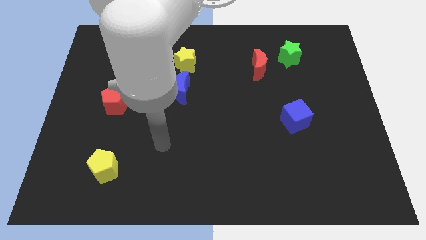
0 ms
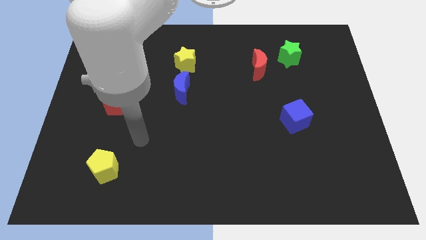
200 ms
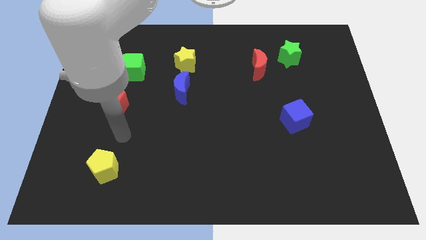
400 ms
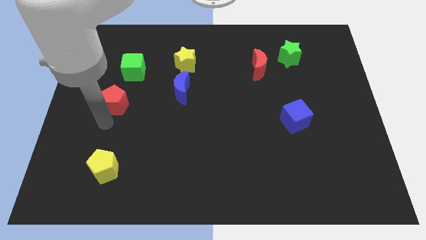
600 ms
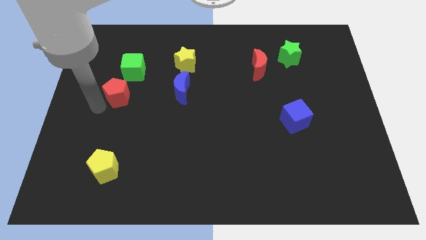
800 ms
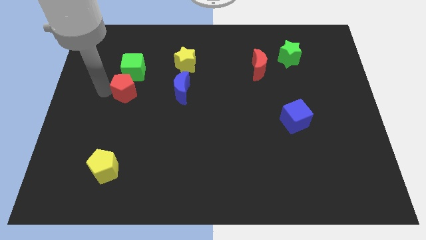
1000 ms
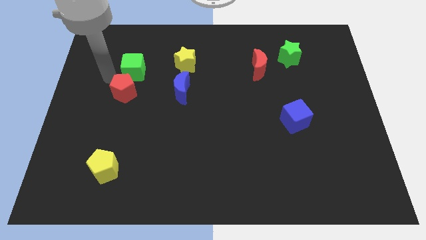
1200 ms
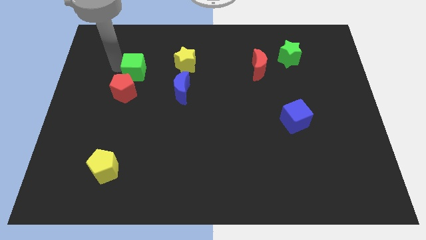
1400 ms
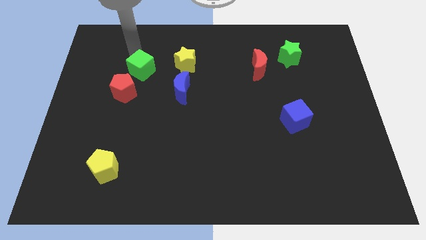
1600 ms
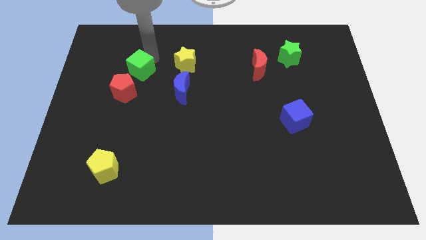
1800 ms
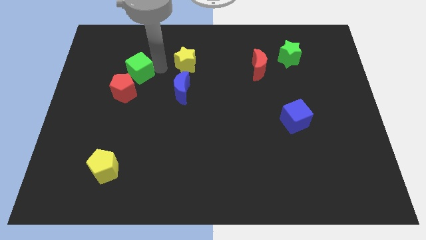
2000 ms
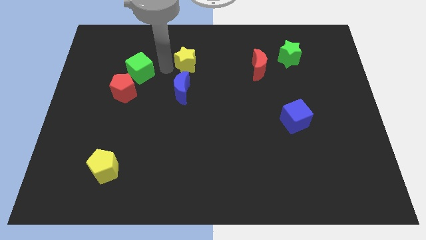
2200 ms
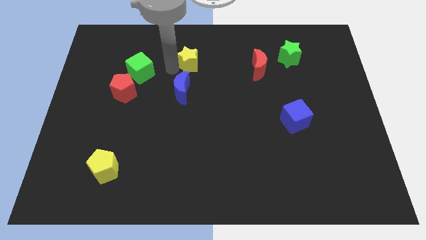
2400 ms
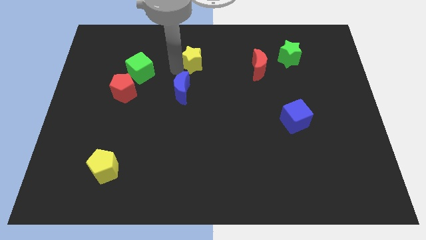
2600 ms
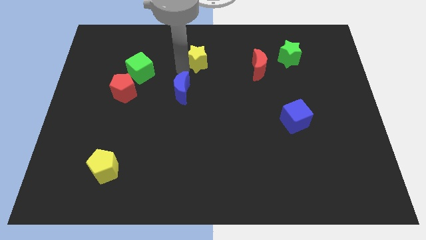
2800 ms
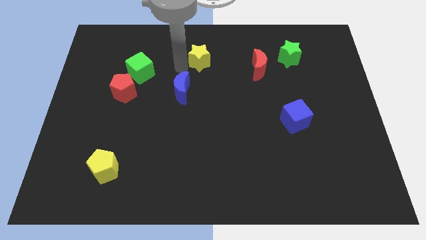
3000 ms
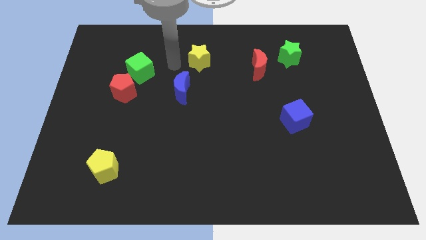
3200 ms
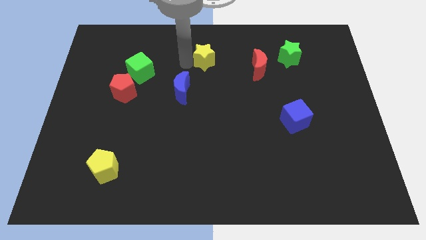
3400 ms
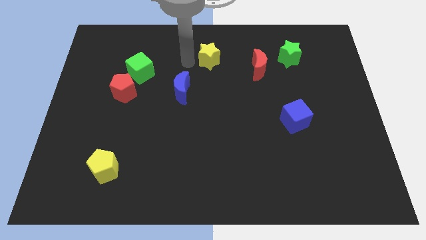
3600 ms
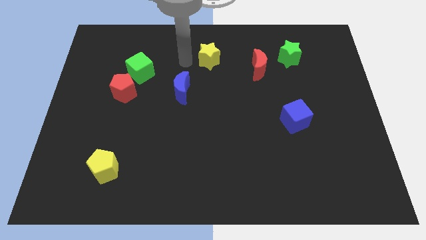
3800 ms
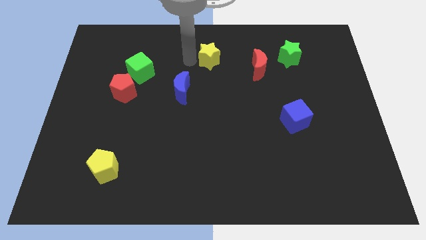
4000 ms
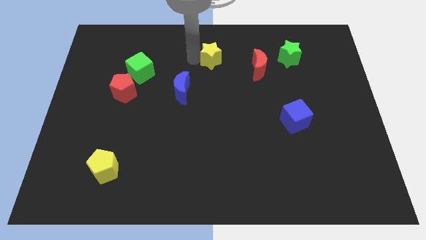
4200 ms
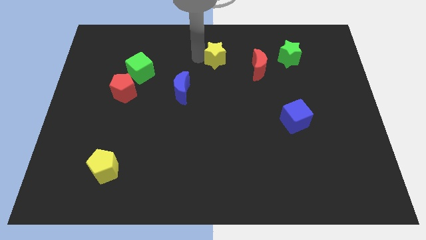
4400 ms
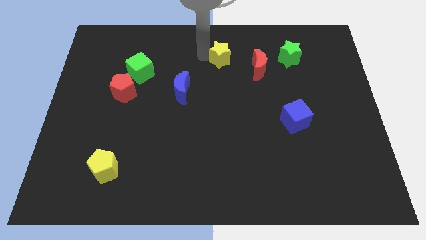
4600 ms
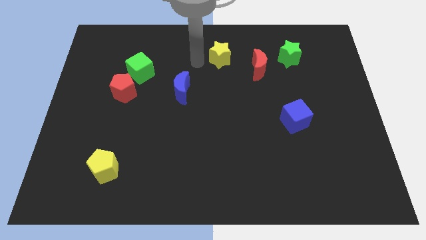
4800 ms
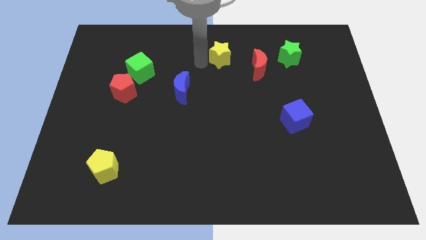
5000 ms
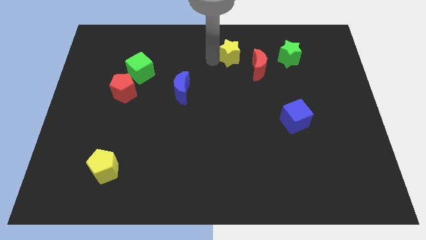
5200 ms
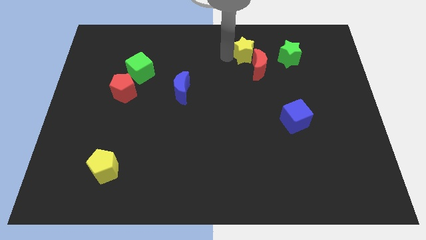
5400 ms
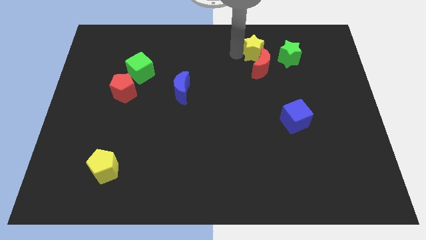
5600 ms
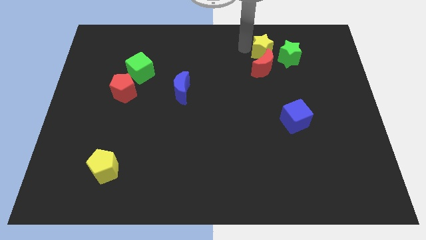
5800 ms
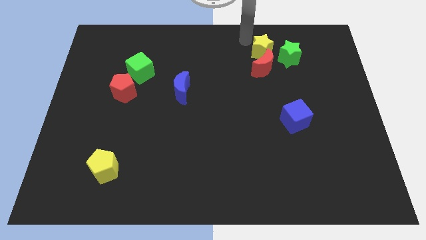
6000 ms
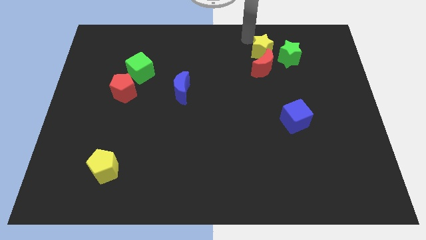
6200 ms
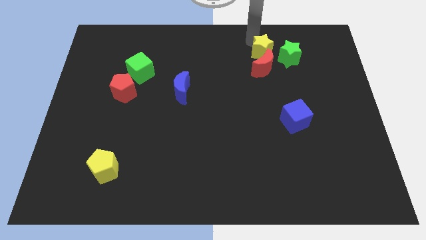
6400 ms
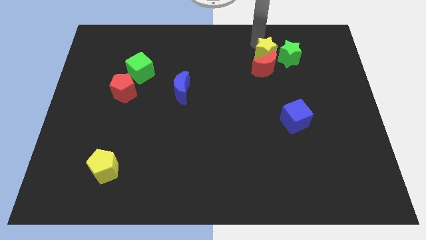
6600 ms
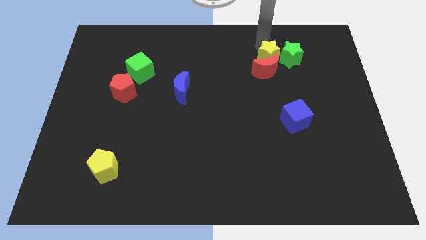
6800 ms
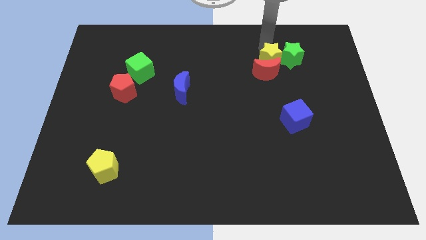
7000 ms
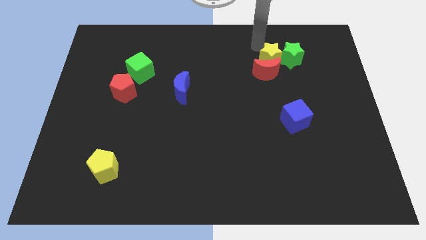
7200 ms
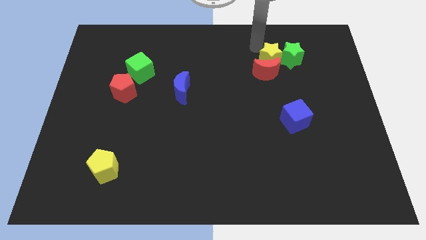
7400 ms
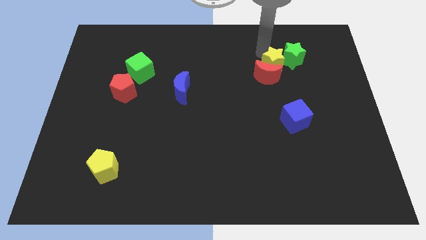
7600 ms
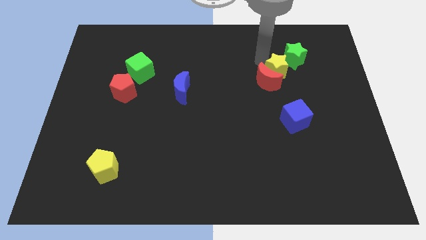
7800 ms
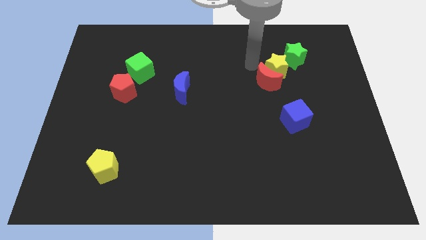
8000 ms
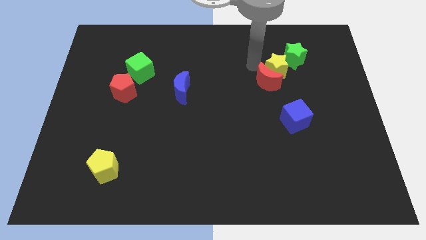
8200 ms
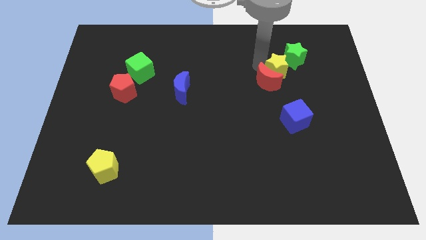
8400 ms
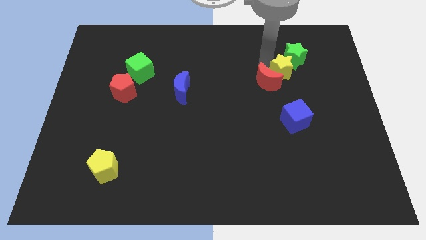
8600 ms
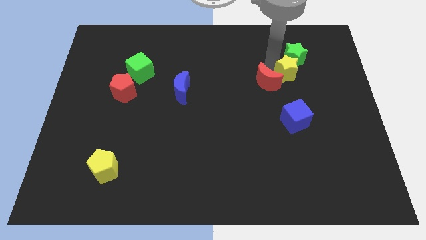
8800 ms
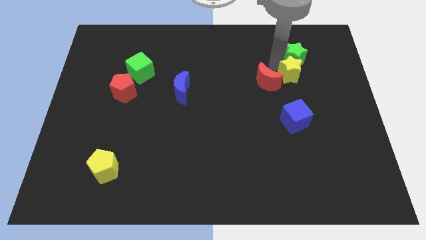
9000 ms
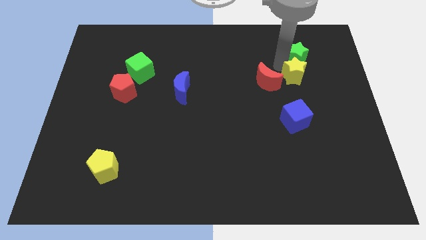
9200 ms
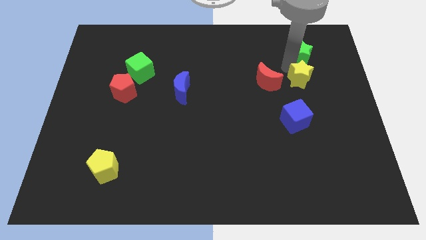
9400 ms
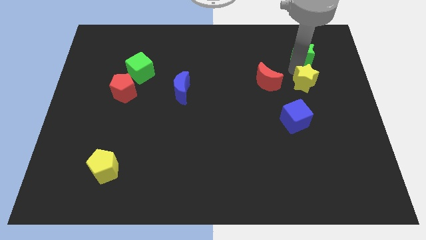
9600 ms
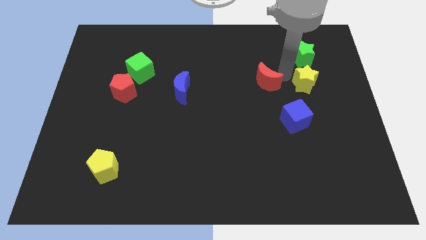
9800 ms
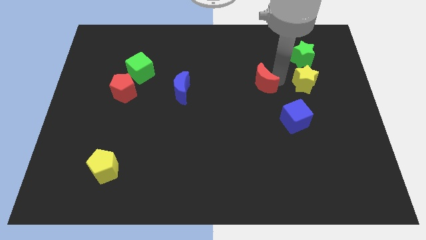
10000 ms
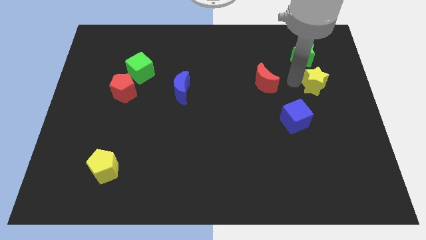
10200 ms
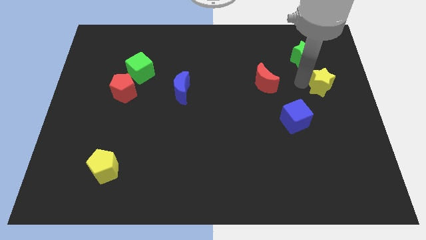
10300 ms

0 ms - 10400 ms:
slide the yellow star to the center right

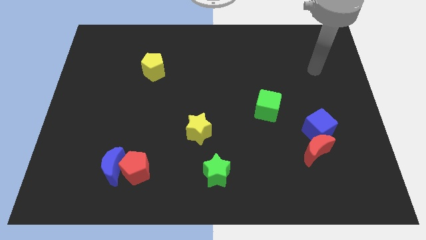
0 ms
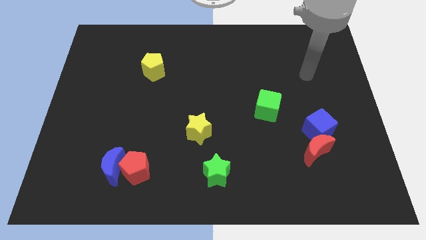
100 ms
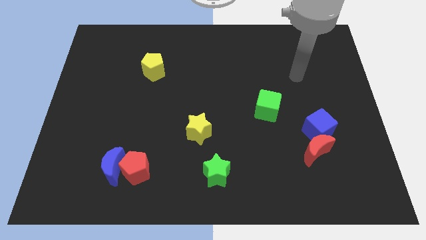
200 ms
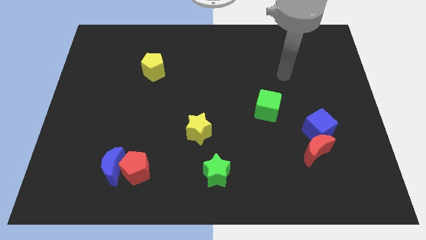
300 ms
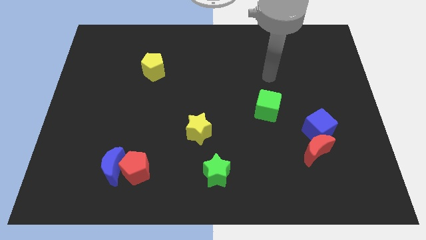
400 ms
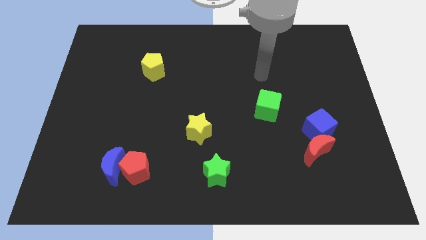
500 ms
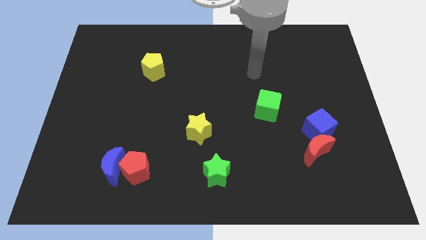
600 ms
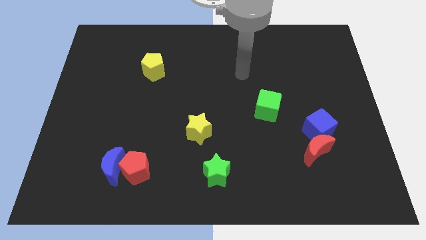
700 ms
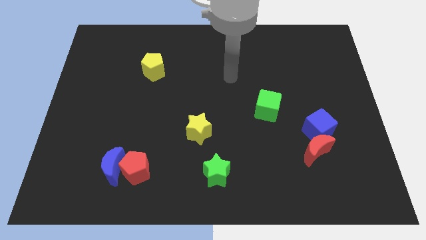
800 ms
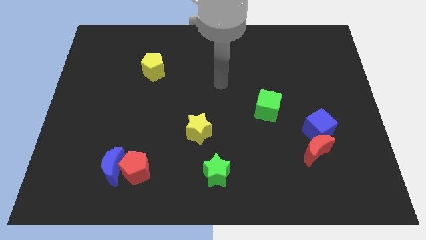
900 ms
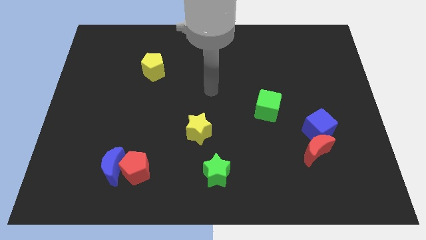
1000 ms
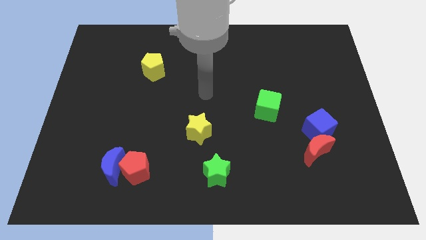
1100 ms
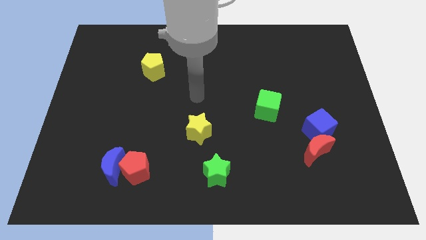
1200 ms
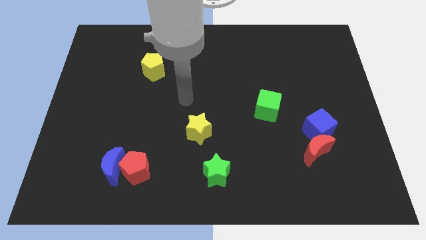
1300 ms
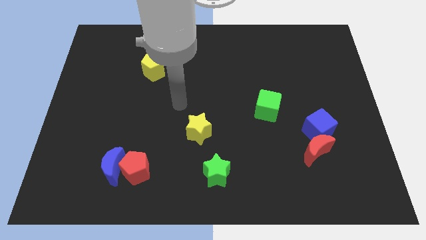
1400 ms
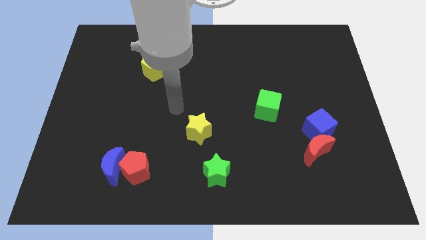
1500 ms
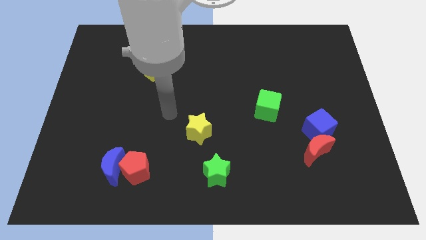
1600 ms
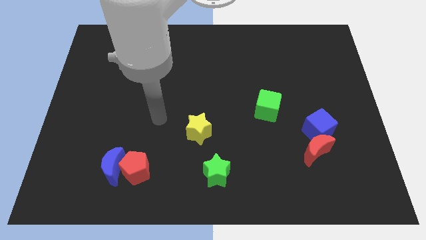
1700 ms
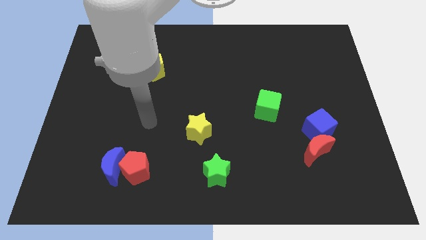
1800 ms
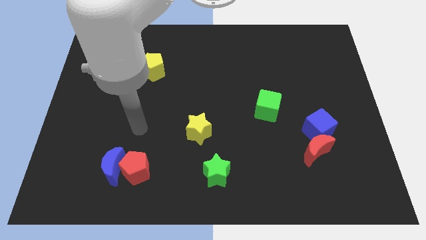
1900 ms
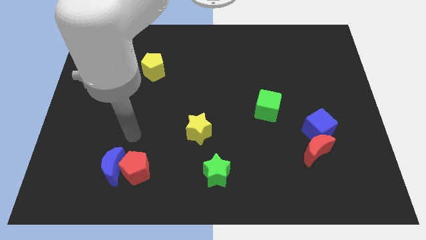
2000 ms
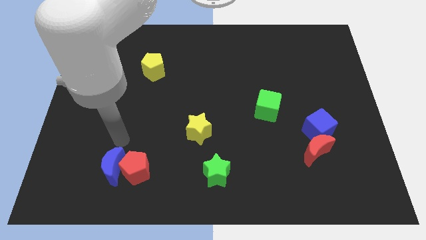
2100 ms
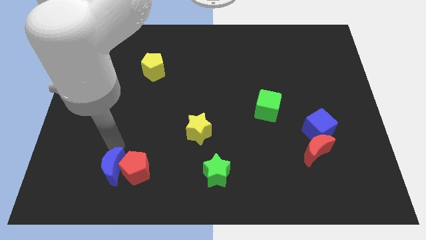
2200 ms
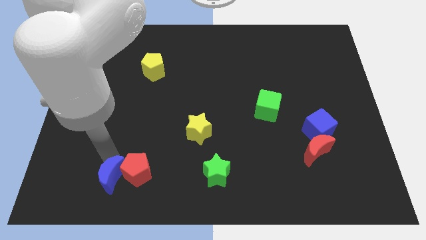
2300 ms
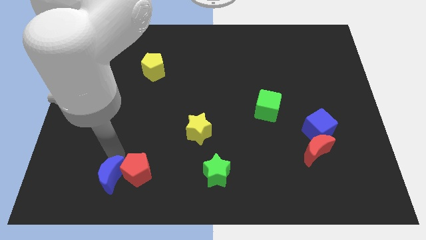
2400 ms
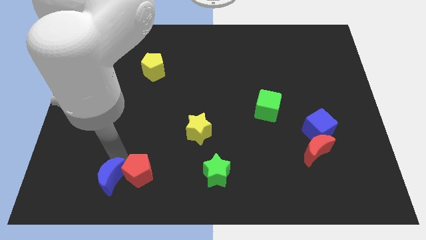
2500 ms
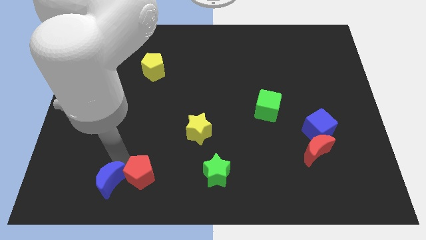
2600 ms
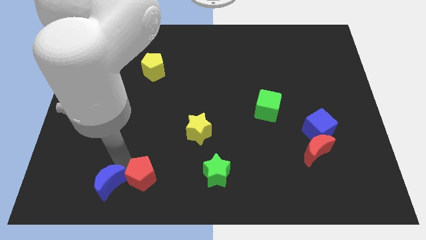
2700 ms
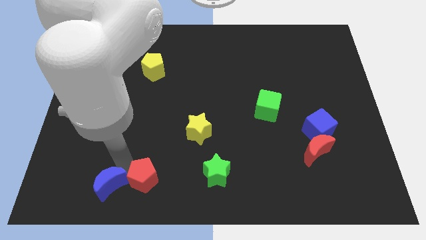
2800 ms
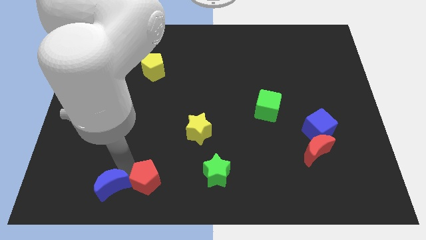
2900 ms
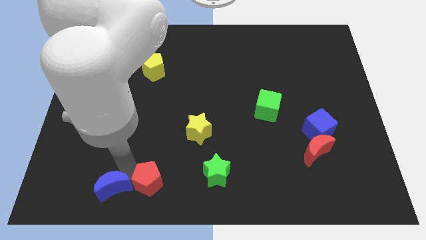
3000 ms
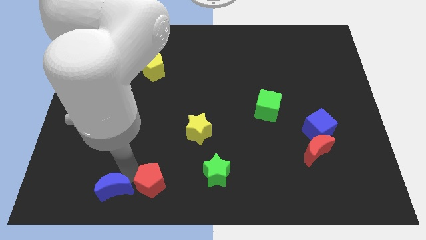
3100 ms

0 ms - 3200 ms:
slide the red pentagon to the bottom side
